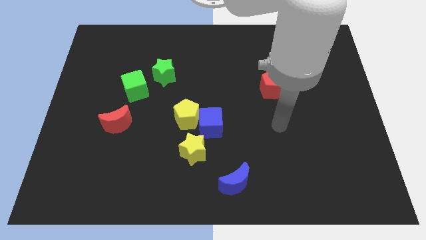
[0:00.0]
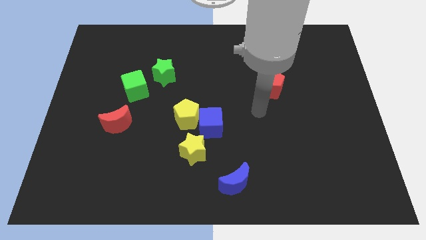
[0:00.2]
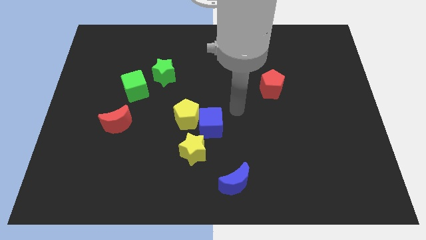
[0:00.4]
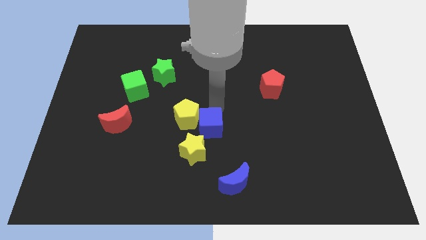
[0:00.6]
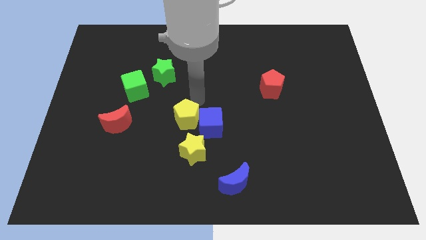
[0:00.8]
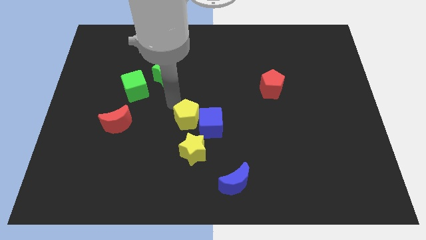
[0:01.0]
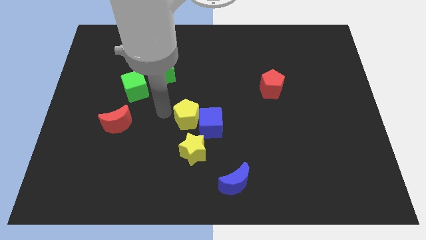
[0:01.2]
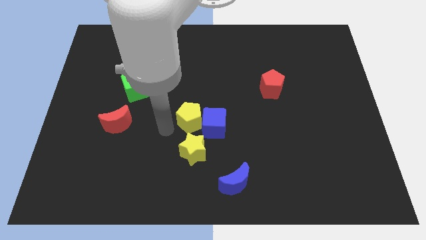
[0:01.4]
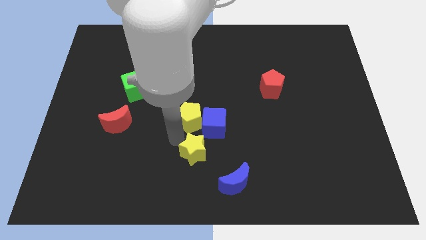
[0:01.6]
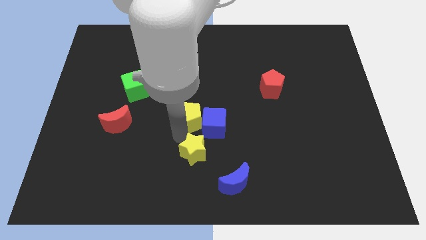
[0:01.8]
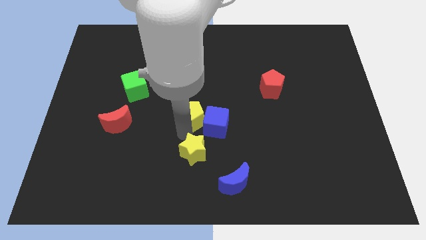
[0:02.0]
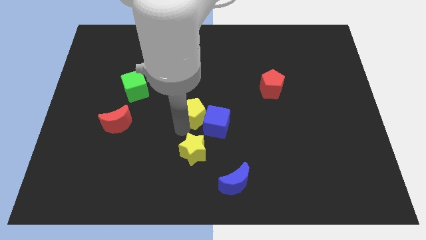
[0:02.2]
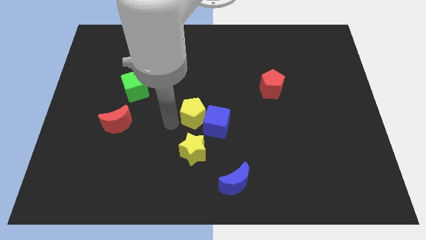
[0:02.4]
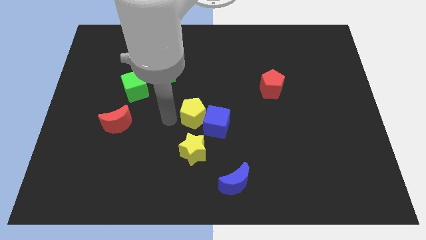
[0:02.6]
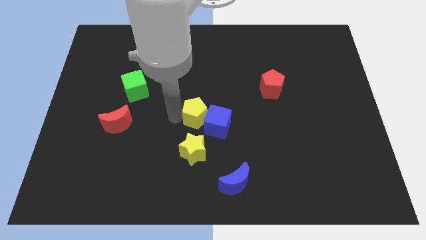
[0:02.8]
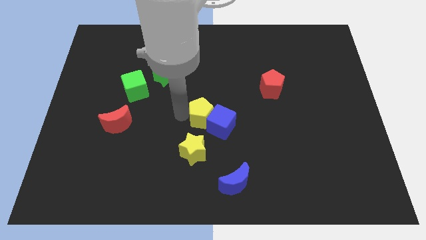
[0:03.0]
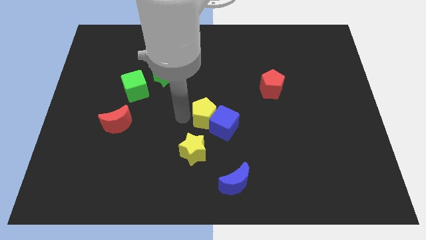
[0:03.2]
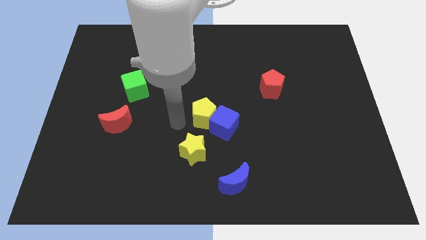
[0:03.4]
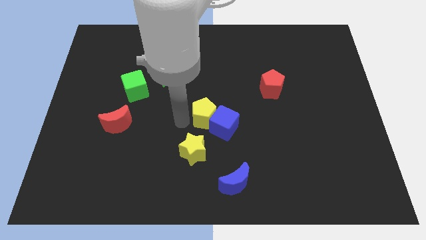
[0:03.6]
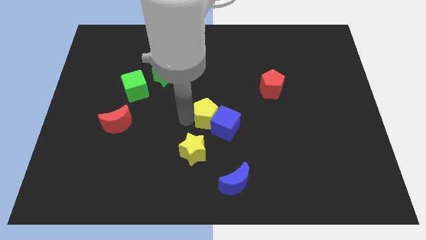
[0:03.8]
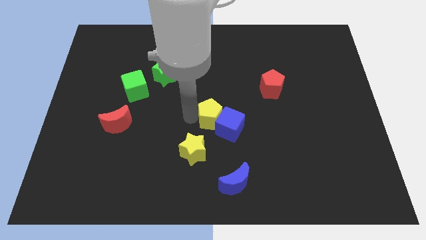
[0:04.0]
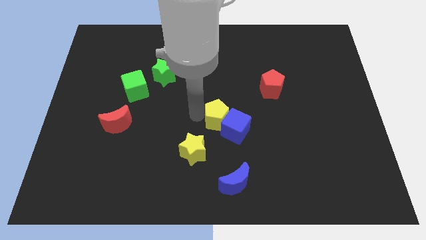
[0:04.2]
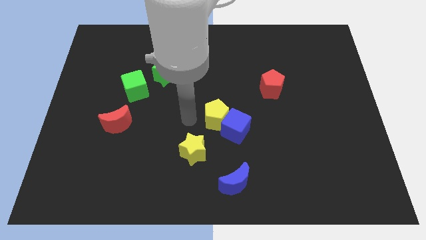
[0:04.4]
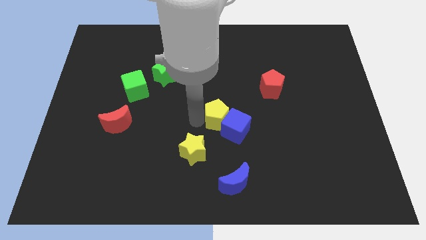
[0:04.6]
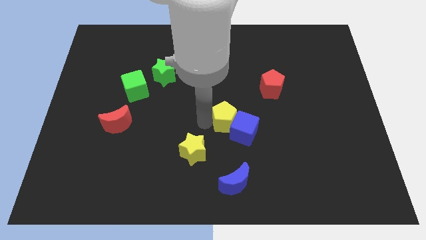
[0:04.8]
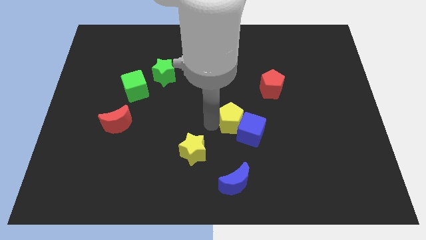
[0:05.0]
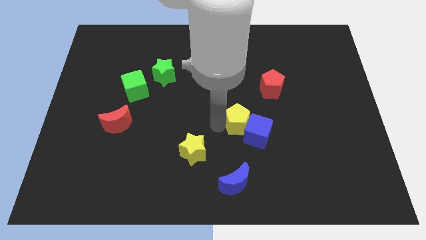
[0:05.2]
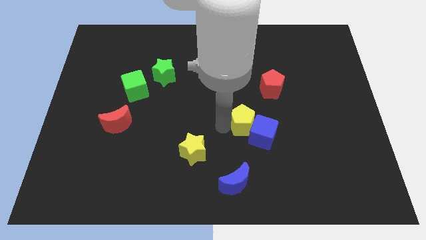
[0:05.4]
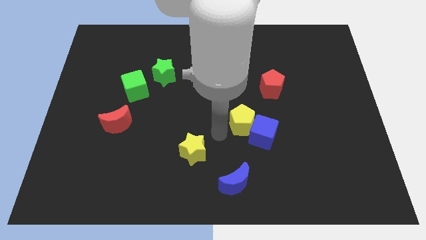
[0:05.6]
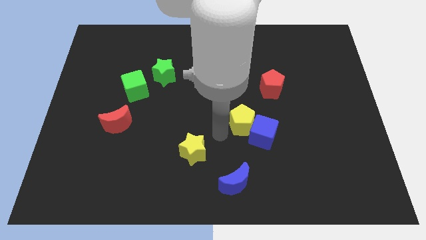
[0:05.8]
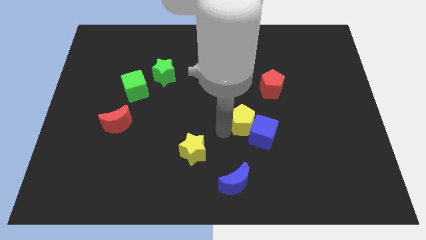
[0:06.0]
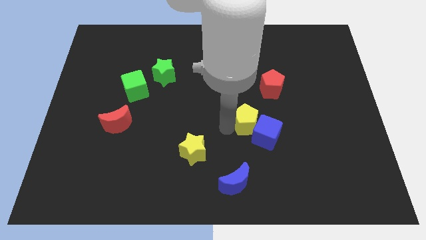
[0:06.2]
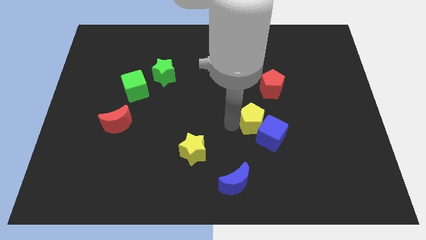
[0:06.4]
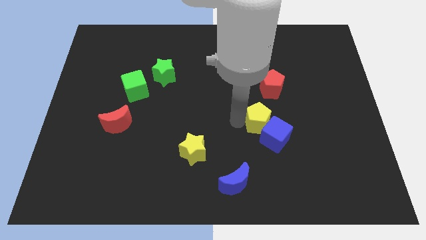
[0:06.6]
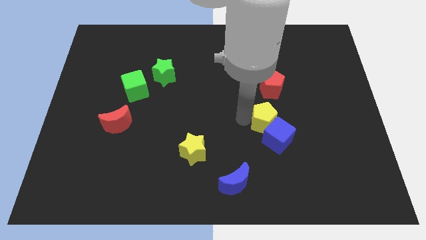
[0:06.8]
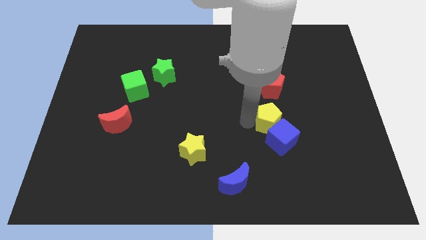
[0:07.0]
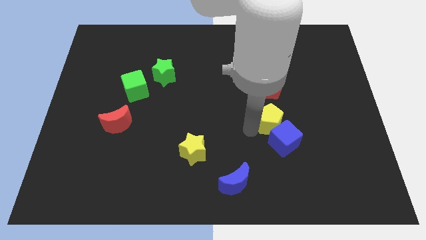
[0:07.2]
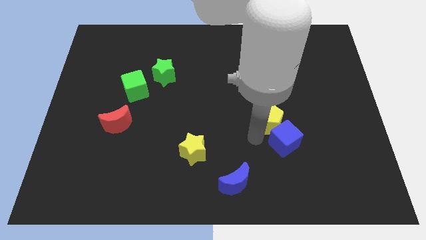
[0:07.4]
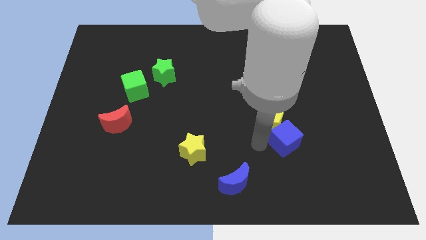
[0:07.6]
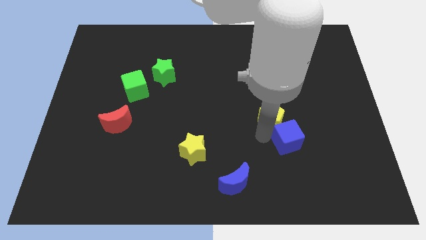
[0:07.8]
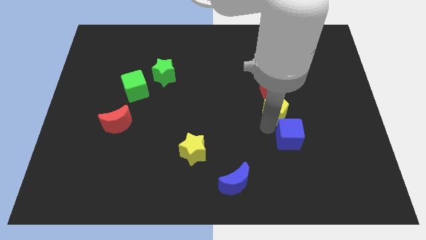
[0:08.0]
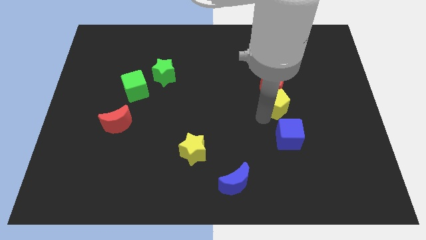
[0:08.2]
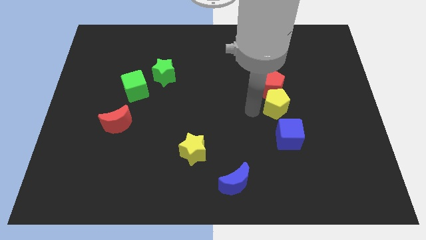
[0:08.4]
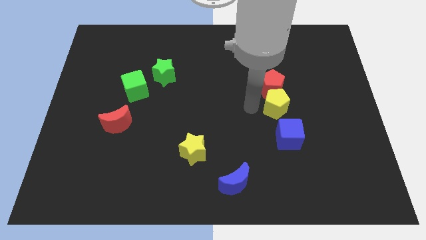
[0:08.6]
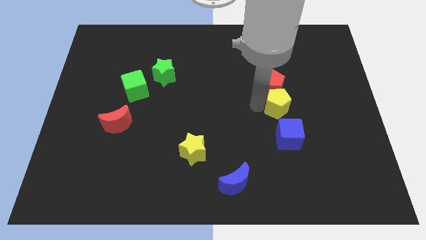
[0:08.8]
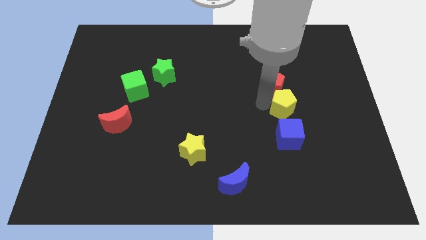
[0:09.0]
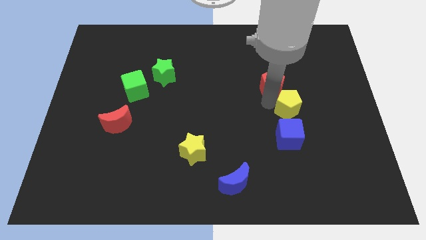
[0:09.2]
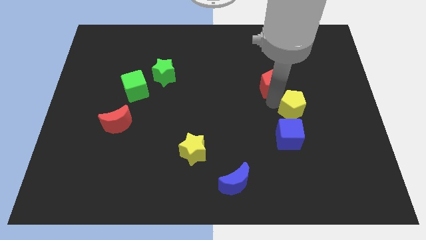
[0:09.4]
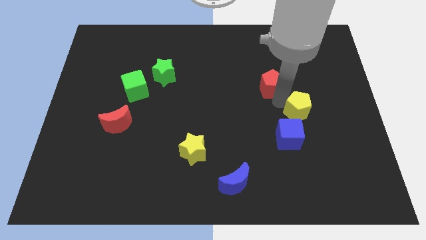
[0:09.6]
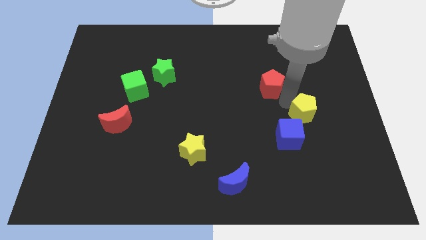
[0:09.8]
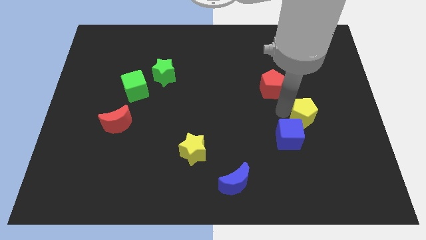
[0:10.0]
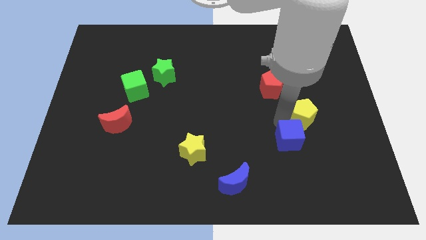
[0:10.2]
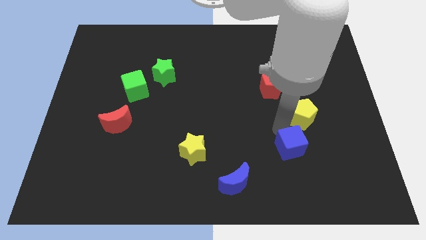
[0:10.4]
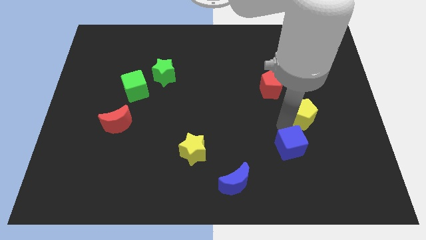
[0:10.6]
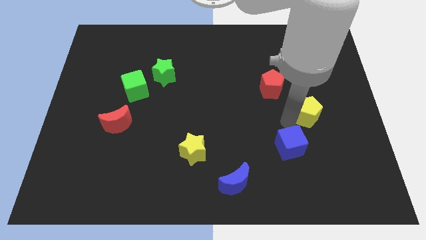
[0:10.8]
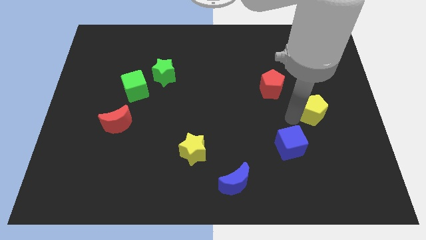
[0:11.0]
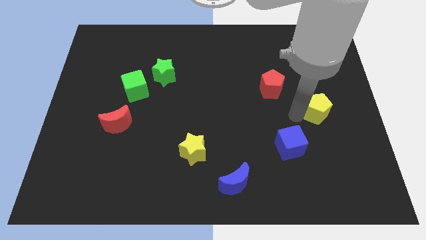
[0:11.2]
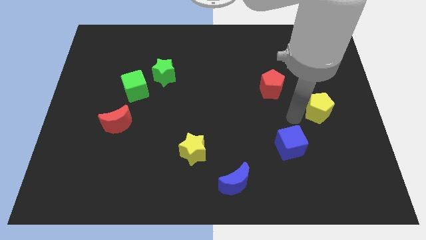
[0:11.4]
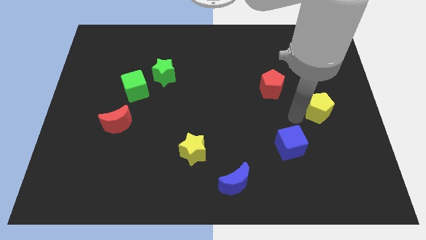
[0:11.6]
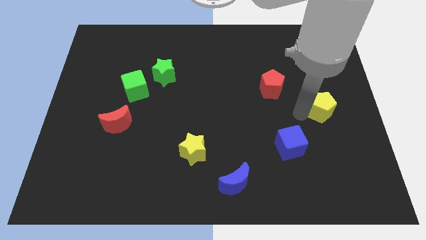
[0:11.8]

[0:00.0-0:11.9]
move the yellow pentagon to the right side of the board

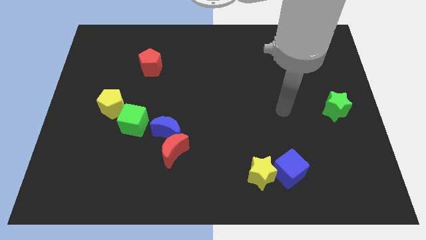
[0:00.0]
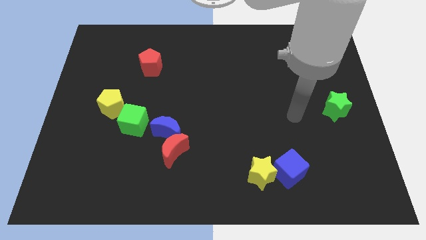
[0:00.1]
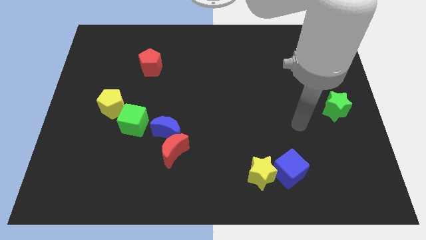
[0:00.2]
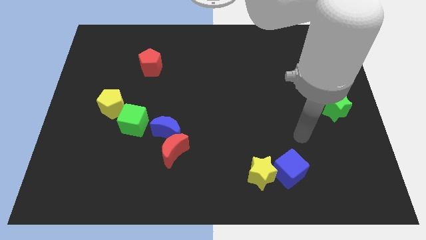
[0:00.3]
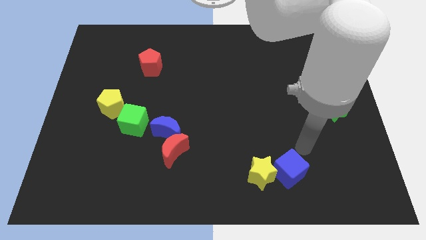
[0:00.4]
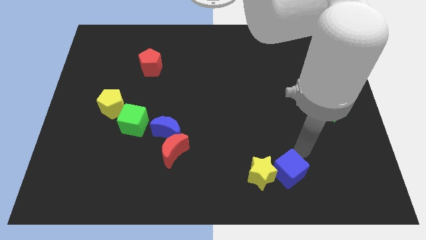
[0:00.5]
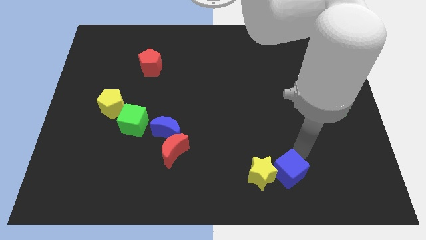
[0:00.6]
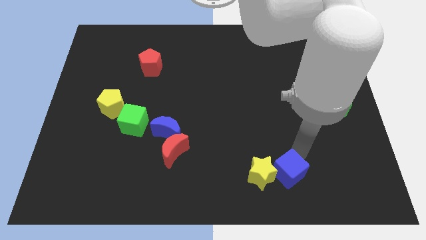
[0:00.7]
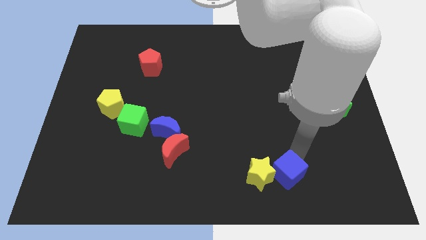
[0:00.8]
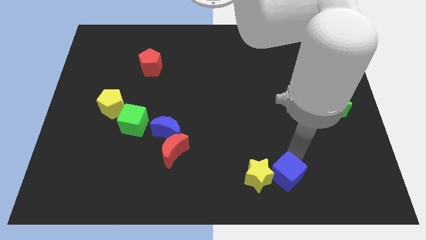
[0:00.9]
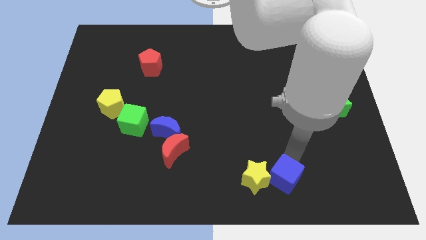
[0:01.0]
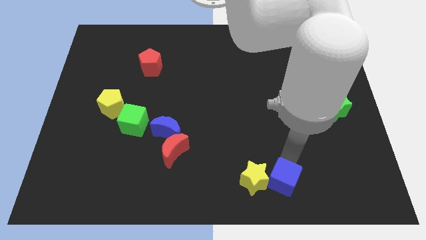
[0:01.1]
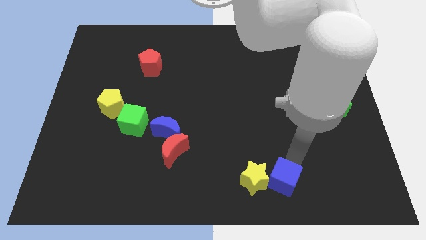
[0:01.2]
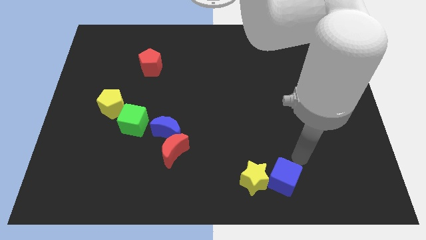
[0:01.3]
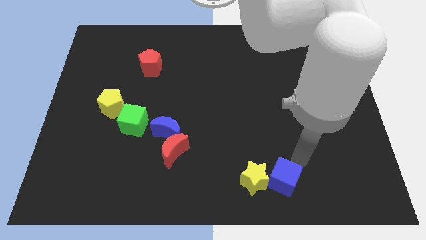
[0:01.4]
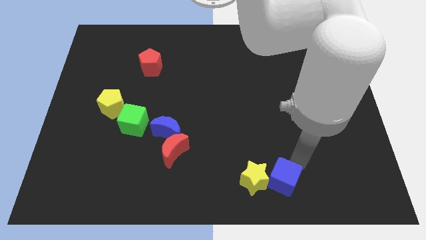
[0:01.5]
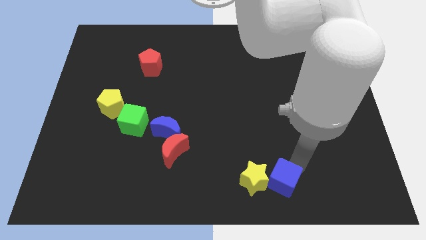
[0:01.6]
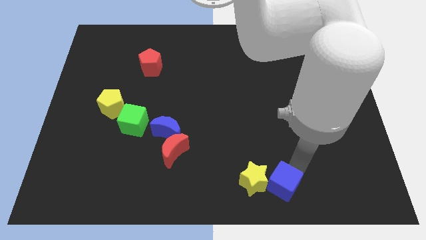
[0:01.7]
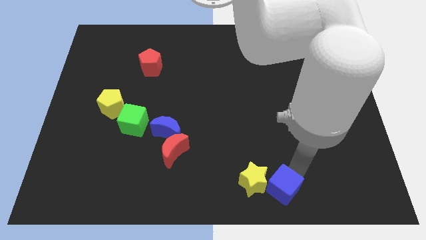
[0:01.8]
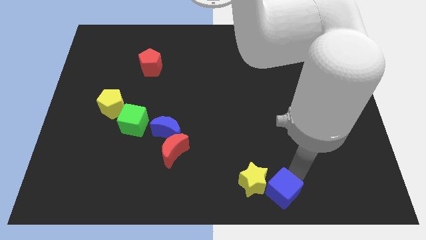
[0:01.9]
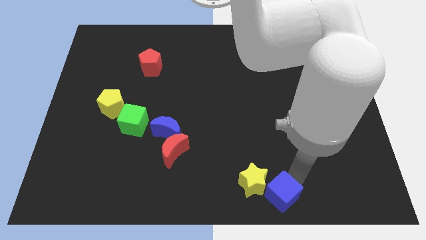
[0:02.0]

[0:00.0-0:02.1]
push the blue cube to the bottom side
